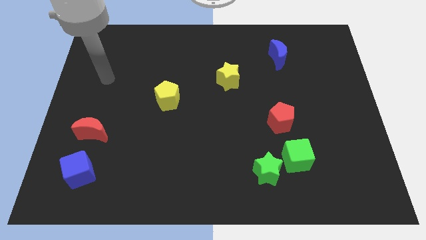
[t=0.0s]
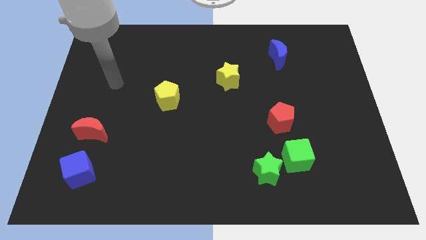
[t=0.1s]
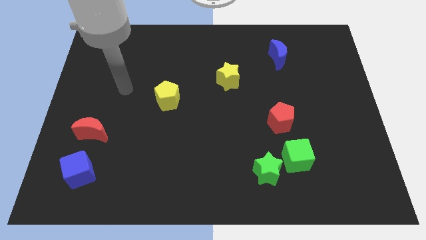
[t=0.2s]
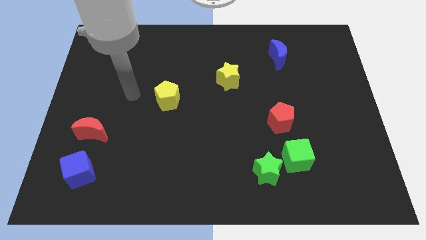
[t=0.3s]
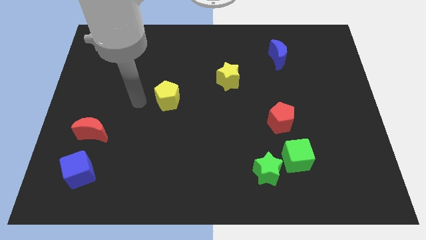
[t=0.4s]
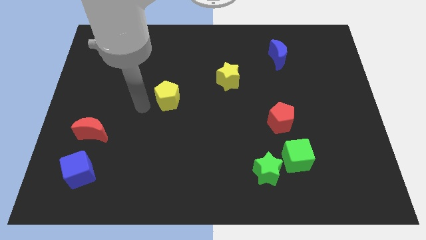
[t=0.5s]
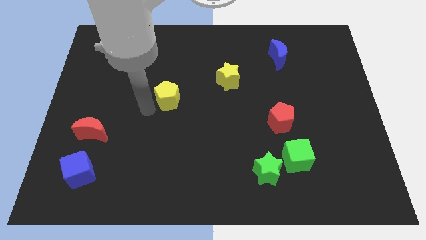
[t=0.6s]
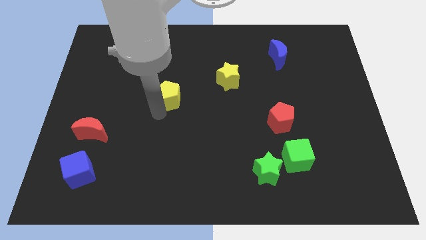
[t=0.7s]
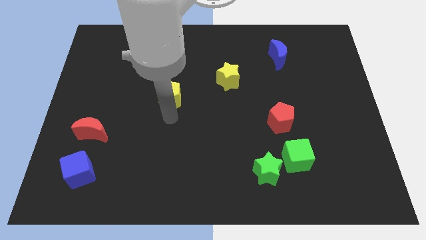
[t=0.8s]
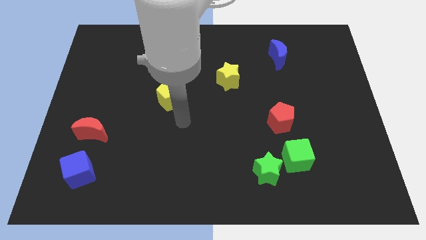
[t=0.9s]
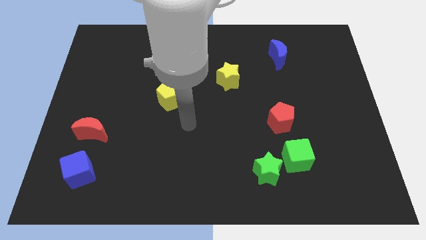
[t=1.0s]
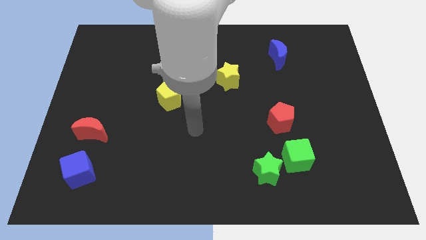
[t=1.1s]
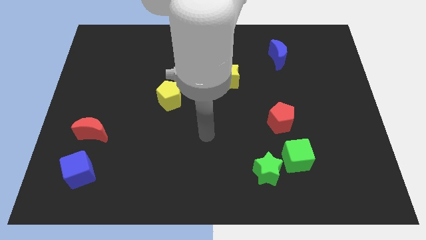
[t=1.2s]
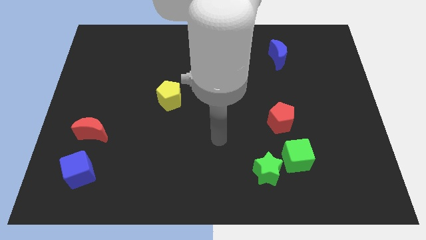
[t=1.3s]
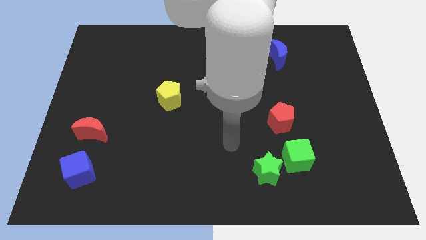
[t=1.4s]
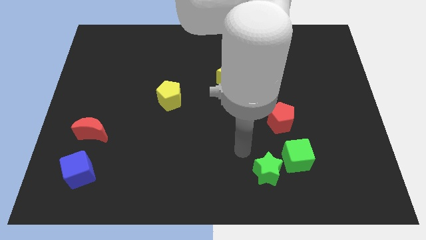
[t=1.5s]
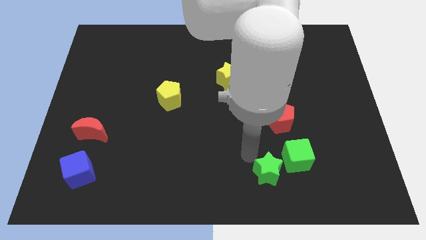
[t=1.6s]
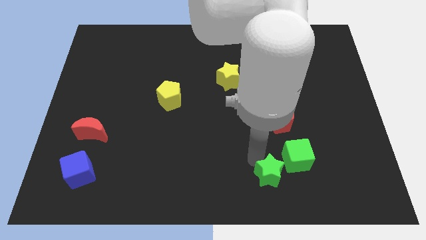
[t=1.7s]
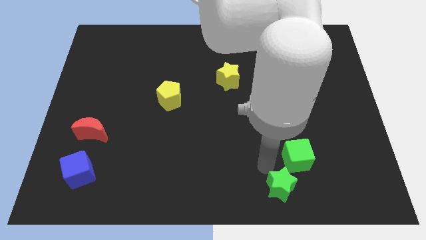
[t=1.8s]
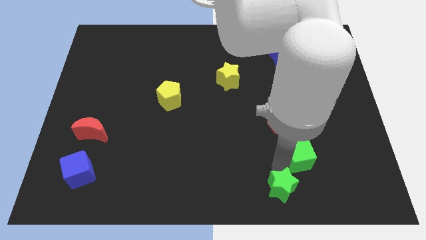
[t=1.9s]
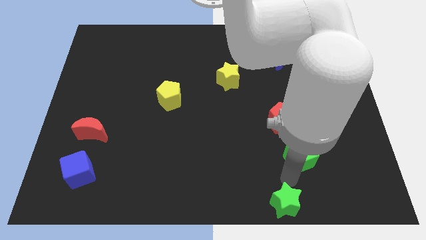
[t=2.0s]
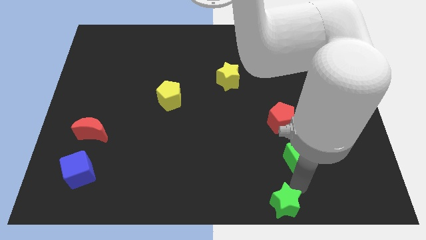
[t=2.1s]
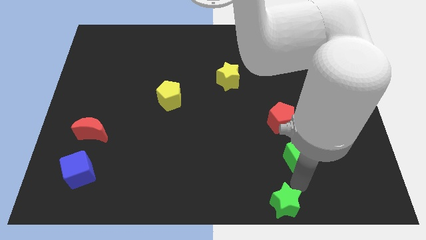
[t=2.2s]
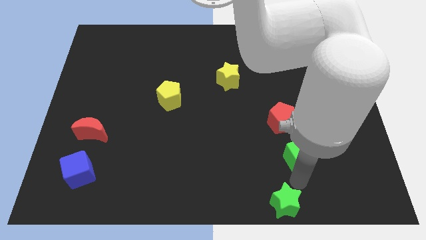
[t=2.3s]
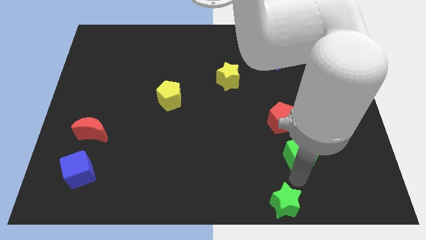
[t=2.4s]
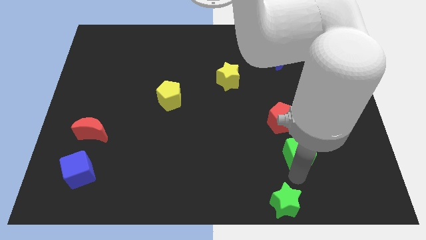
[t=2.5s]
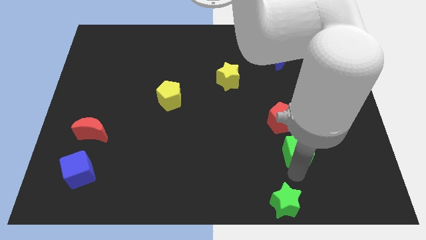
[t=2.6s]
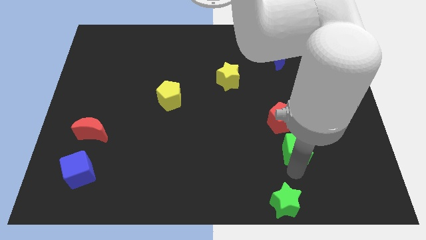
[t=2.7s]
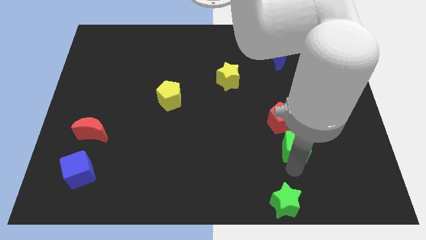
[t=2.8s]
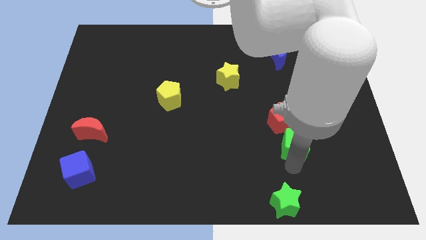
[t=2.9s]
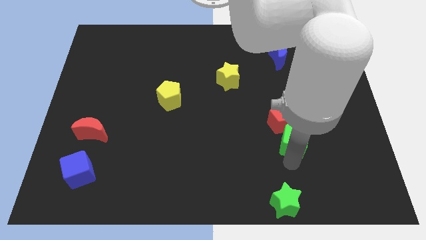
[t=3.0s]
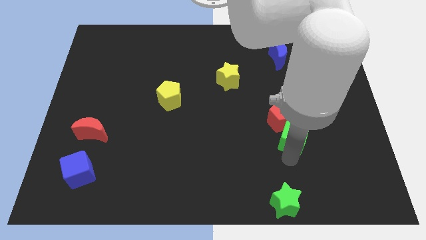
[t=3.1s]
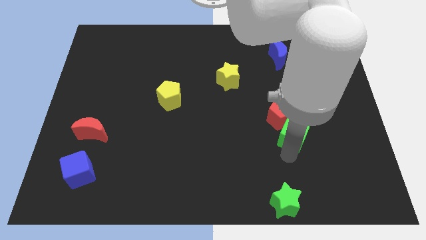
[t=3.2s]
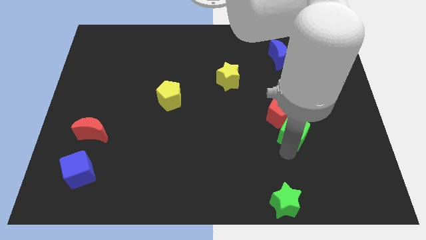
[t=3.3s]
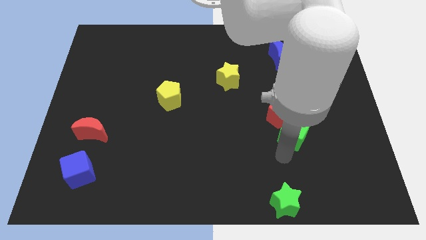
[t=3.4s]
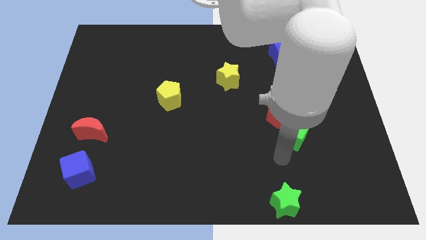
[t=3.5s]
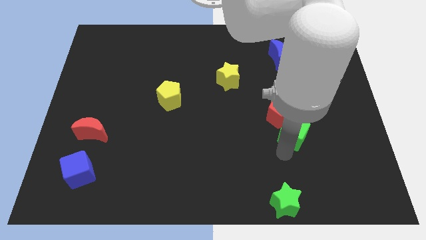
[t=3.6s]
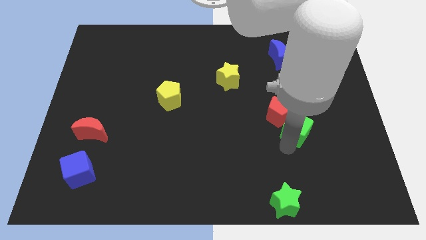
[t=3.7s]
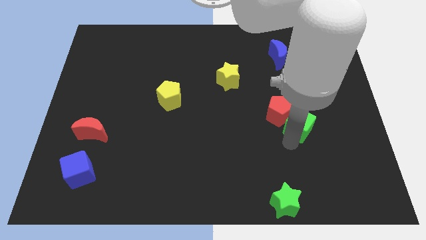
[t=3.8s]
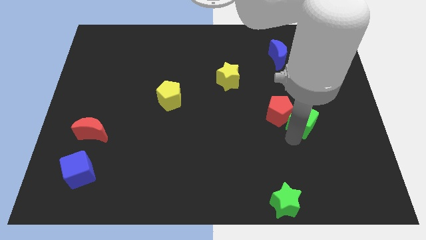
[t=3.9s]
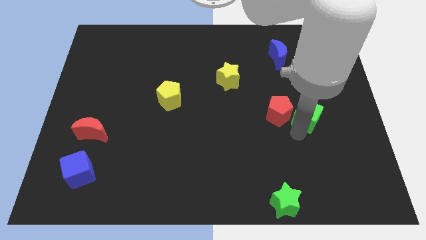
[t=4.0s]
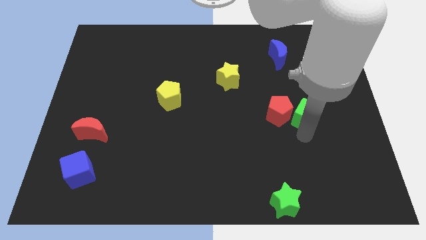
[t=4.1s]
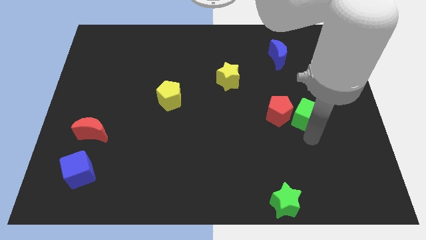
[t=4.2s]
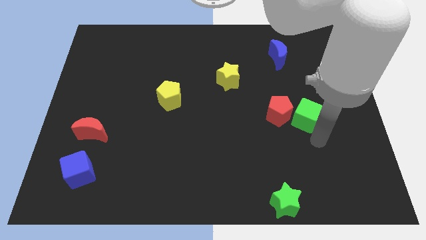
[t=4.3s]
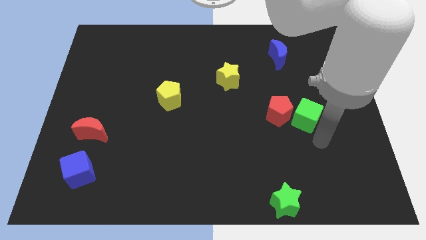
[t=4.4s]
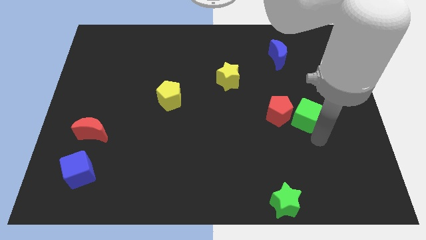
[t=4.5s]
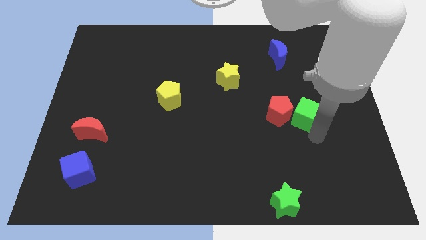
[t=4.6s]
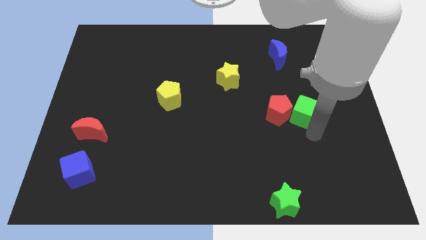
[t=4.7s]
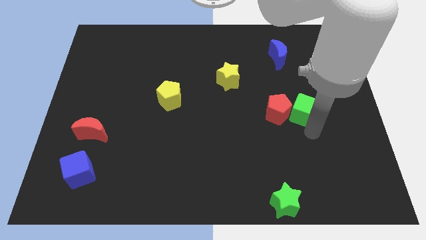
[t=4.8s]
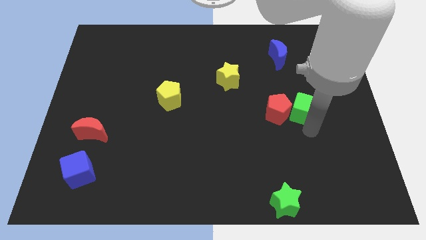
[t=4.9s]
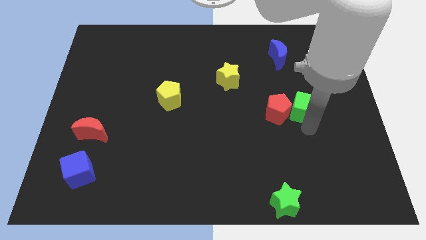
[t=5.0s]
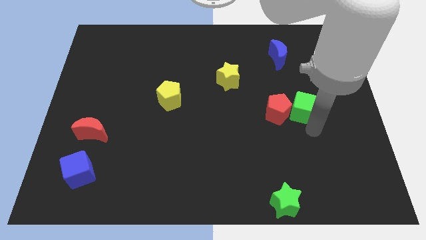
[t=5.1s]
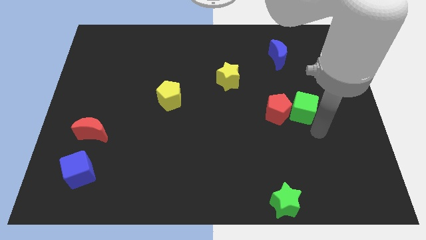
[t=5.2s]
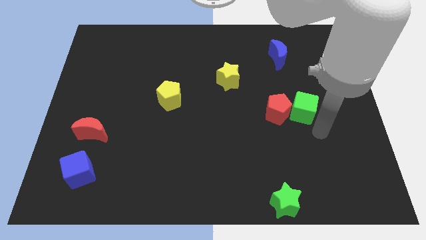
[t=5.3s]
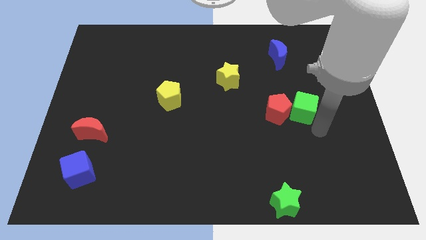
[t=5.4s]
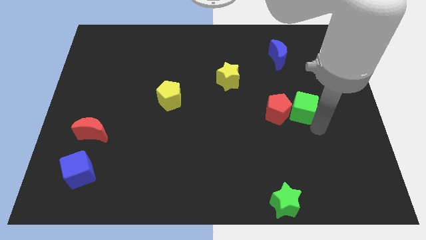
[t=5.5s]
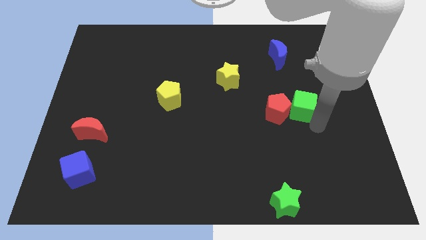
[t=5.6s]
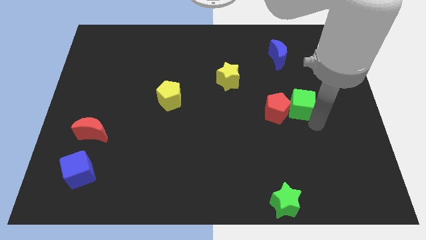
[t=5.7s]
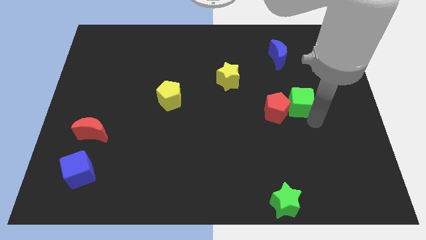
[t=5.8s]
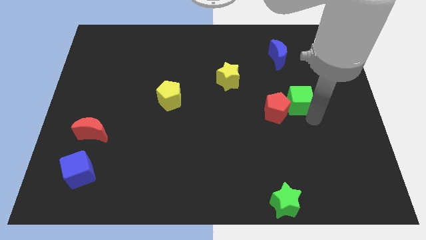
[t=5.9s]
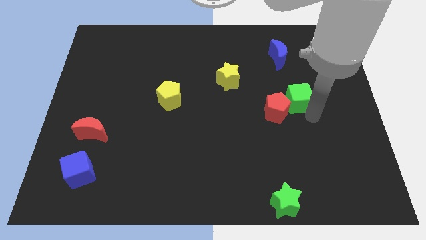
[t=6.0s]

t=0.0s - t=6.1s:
slide the green cube below the blue moon
